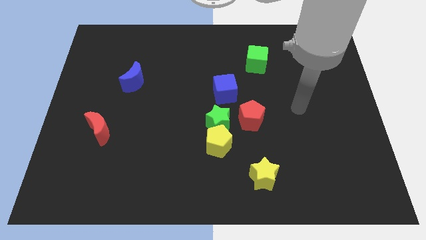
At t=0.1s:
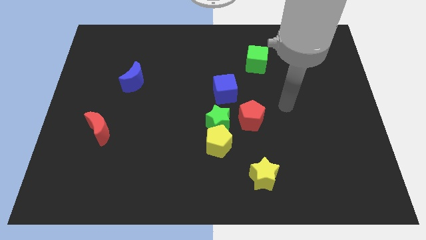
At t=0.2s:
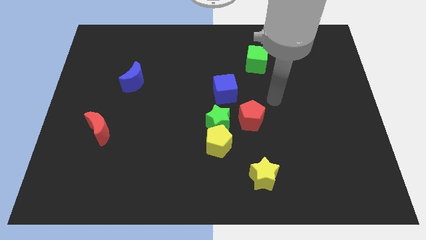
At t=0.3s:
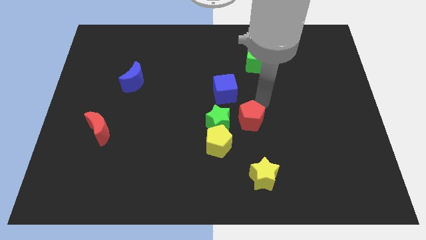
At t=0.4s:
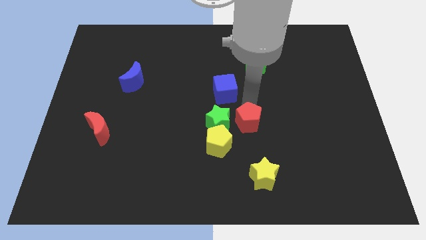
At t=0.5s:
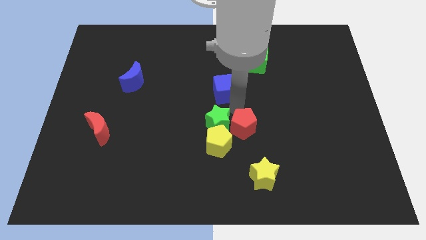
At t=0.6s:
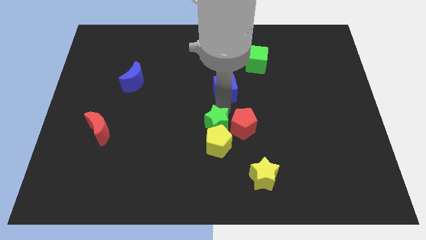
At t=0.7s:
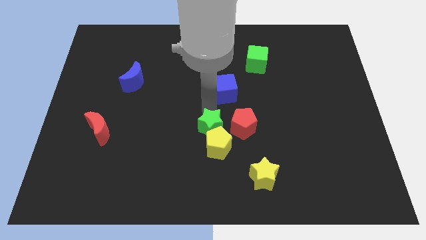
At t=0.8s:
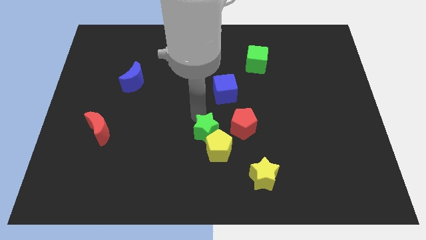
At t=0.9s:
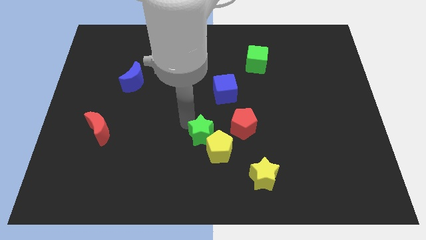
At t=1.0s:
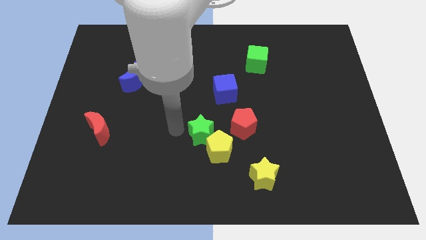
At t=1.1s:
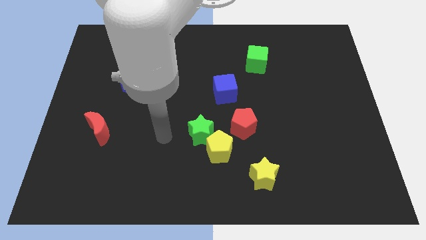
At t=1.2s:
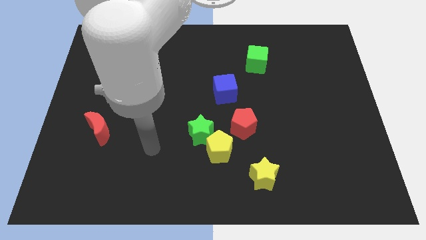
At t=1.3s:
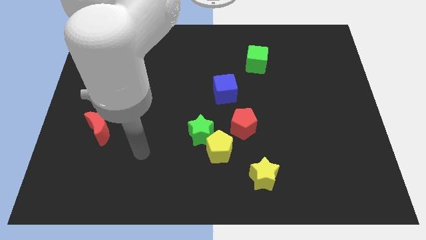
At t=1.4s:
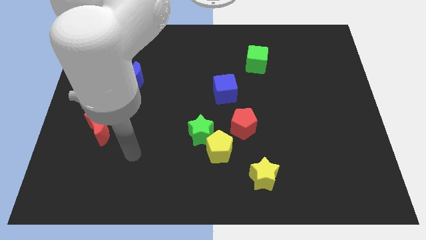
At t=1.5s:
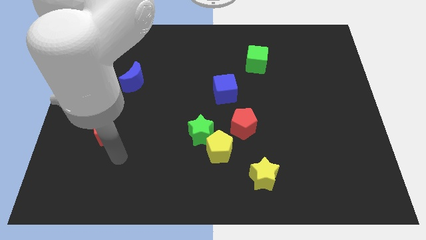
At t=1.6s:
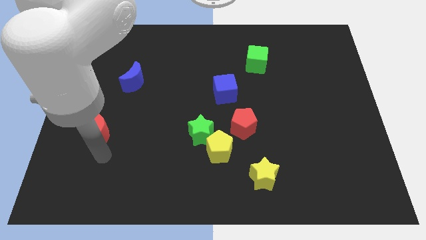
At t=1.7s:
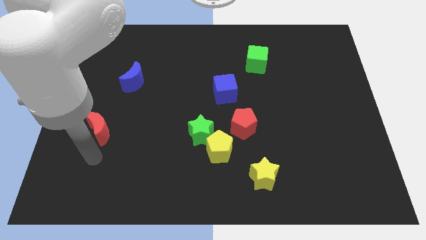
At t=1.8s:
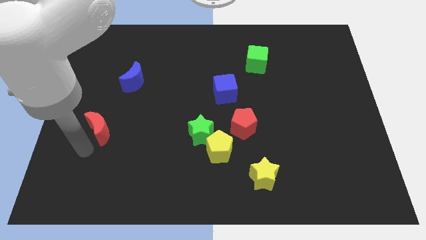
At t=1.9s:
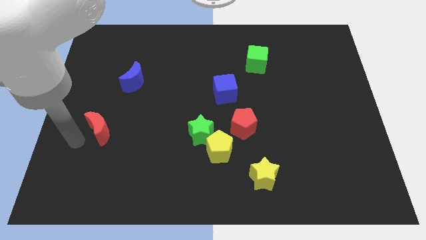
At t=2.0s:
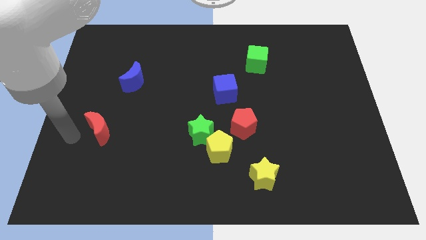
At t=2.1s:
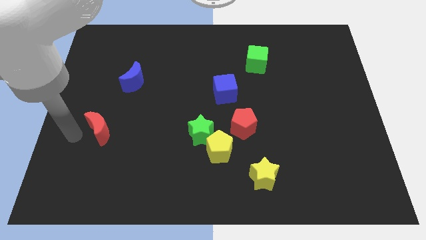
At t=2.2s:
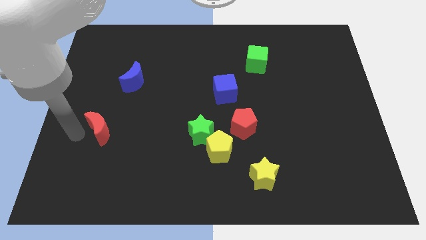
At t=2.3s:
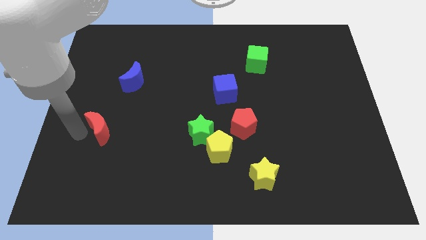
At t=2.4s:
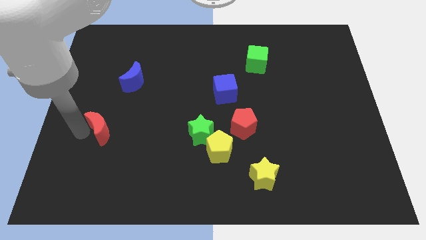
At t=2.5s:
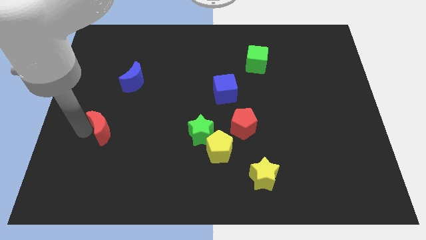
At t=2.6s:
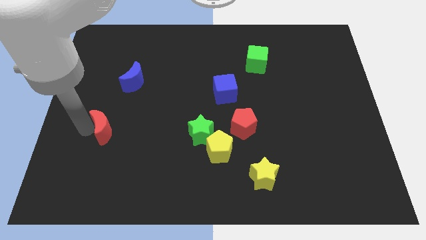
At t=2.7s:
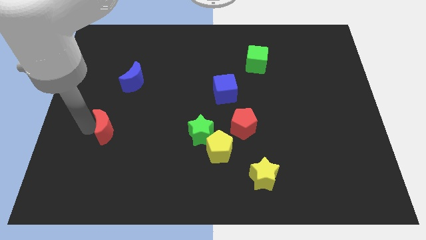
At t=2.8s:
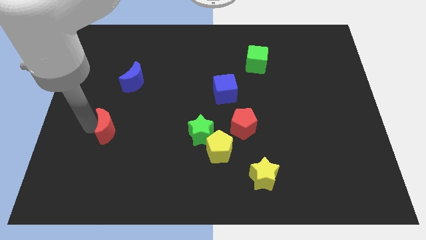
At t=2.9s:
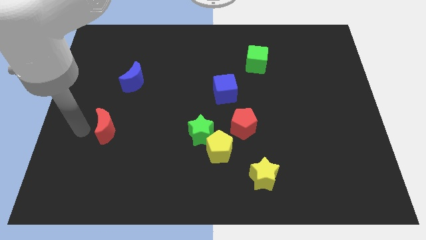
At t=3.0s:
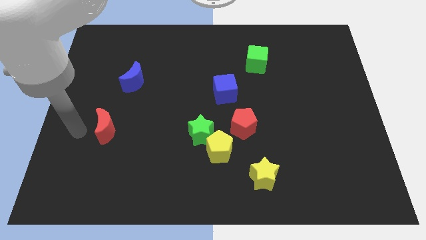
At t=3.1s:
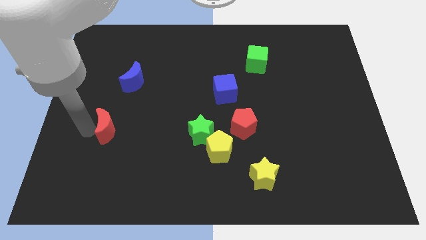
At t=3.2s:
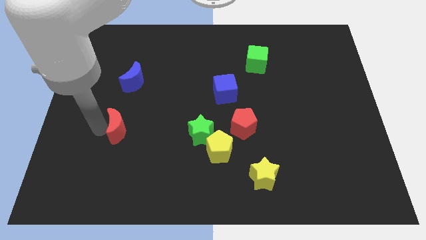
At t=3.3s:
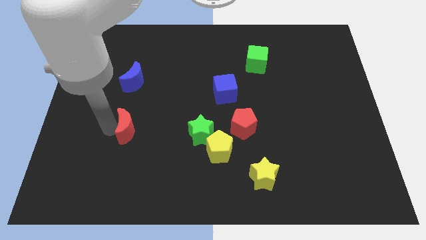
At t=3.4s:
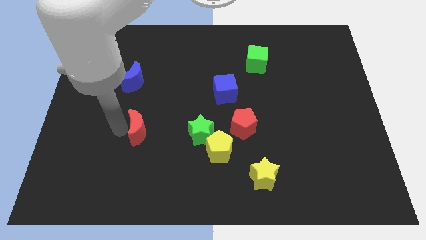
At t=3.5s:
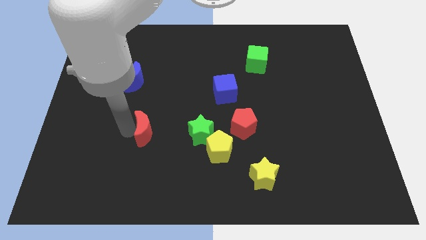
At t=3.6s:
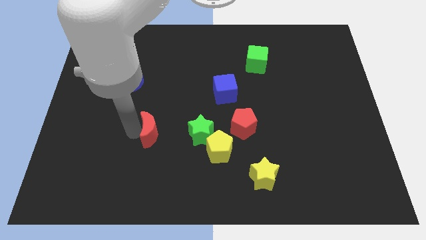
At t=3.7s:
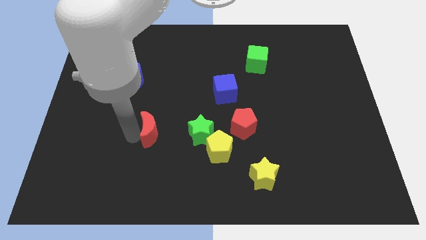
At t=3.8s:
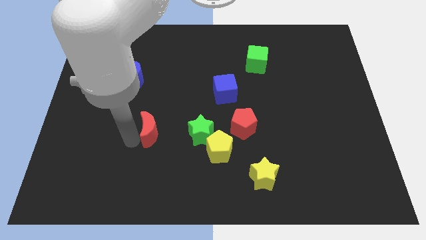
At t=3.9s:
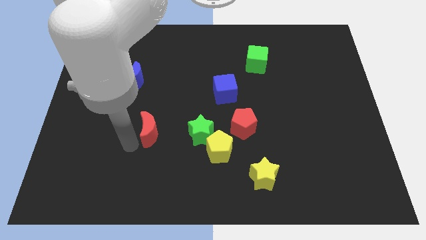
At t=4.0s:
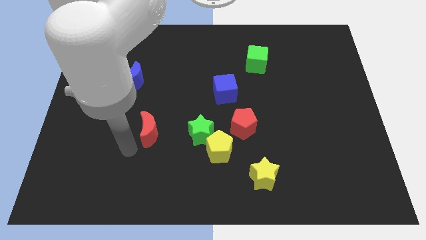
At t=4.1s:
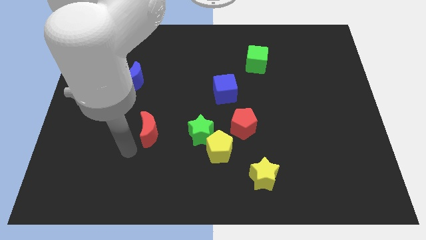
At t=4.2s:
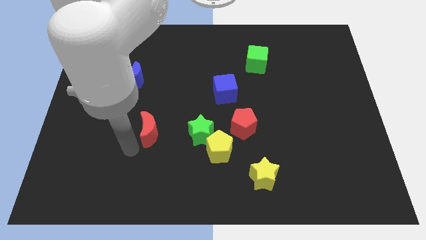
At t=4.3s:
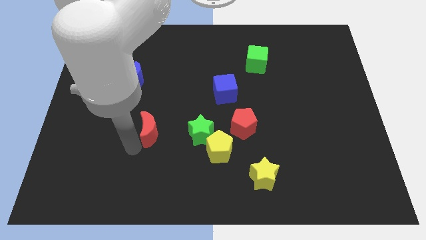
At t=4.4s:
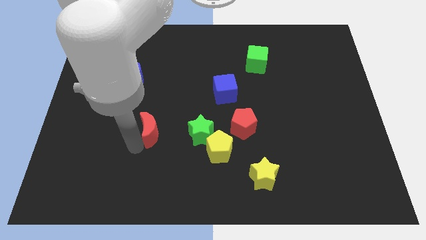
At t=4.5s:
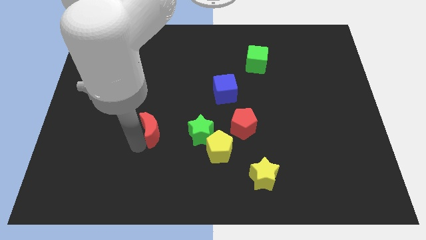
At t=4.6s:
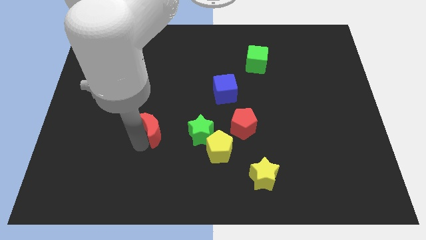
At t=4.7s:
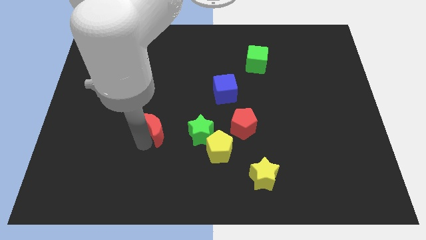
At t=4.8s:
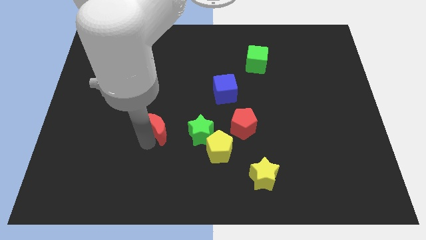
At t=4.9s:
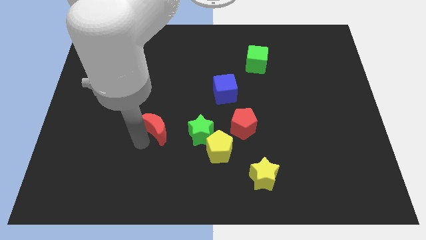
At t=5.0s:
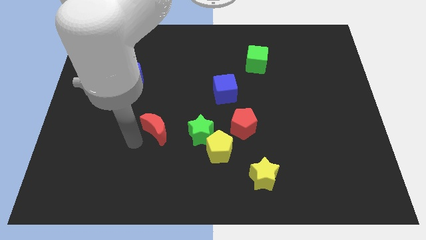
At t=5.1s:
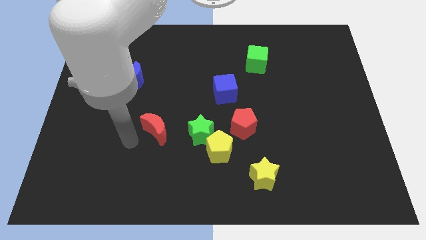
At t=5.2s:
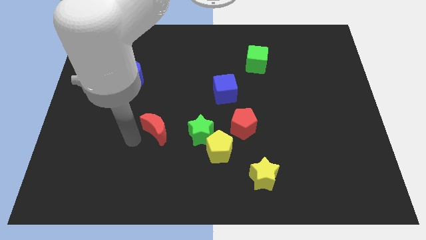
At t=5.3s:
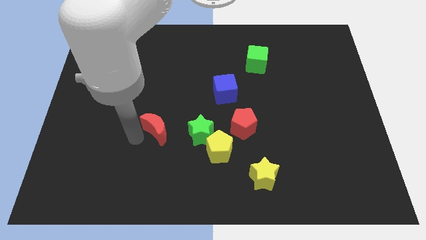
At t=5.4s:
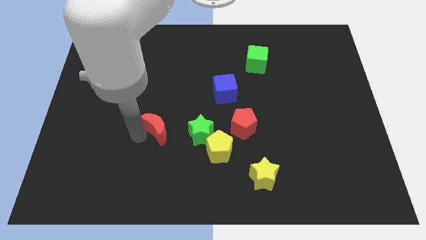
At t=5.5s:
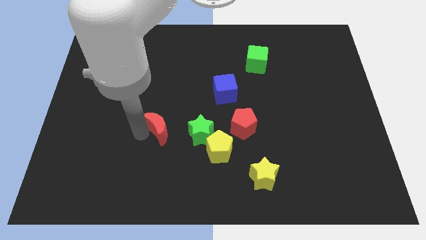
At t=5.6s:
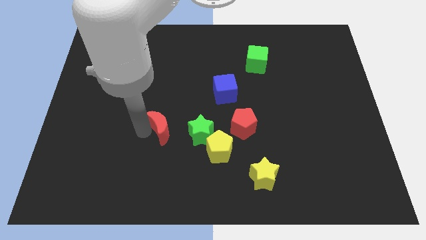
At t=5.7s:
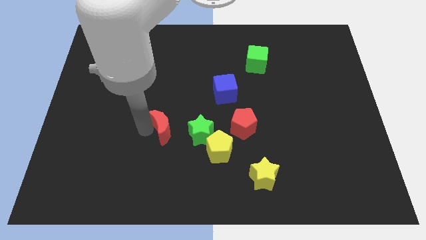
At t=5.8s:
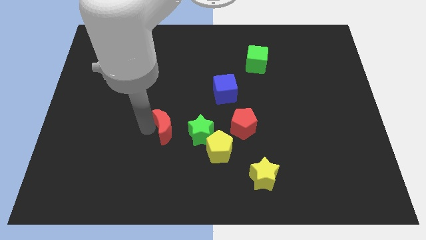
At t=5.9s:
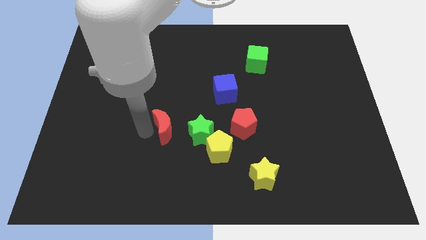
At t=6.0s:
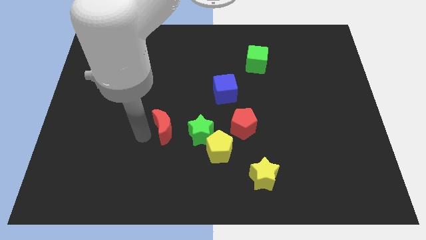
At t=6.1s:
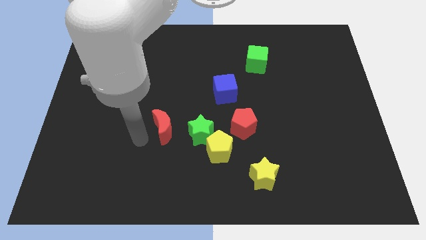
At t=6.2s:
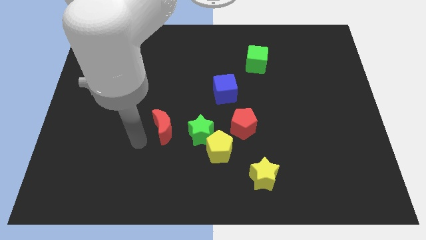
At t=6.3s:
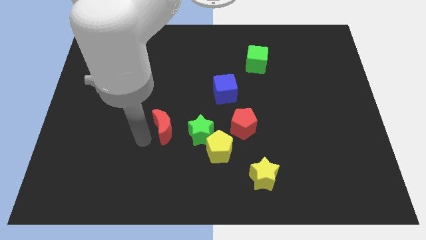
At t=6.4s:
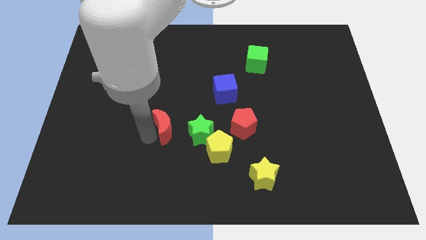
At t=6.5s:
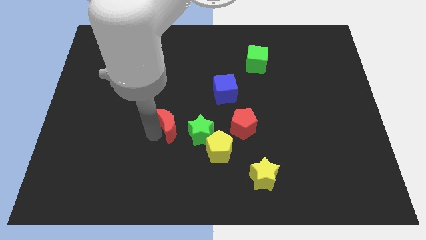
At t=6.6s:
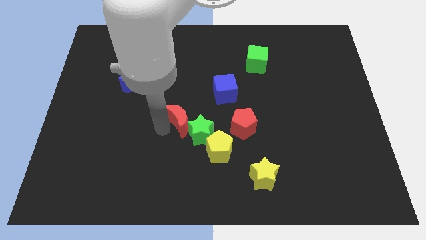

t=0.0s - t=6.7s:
move the red moon next to the green star

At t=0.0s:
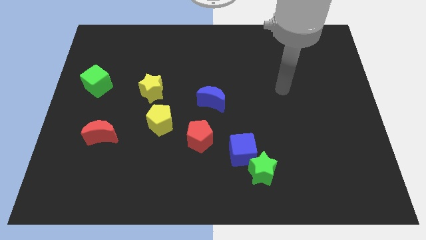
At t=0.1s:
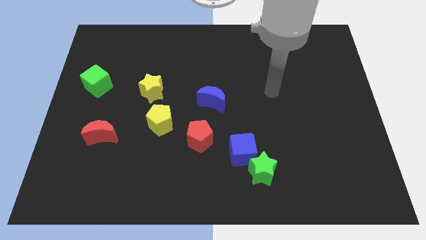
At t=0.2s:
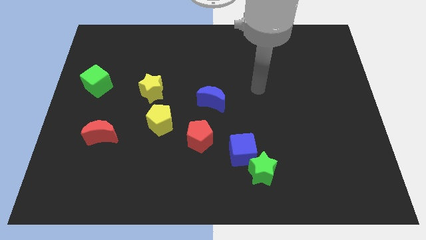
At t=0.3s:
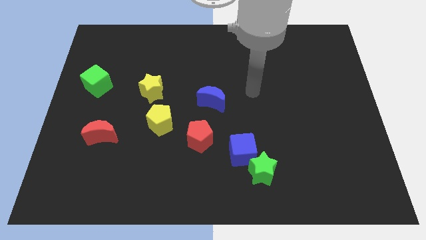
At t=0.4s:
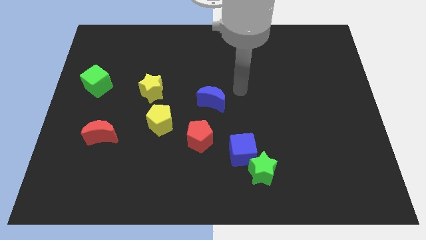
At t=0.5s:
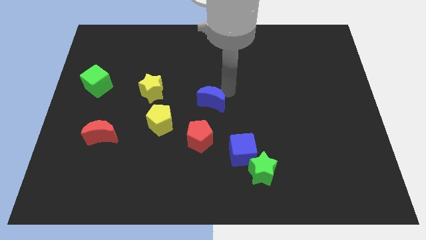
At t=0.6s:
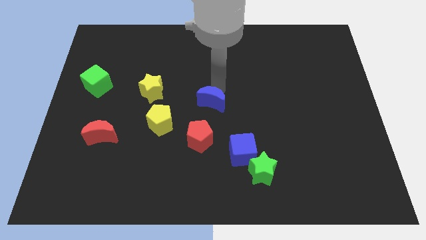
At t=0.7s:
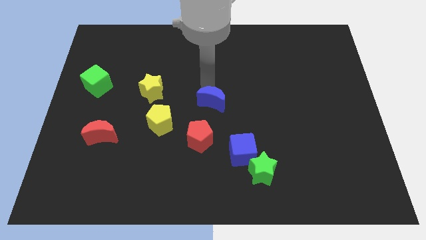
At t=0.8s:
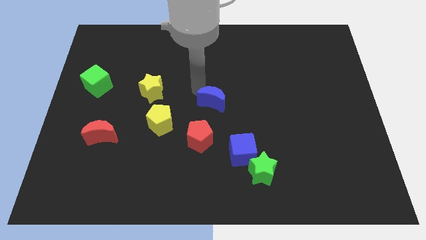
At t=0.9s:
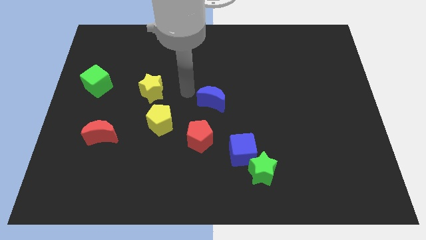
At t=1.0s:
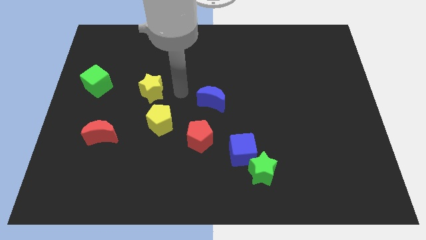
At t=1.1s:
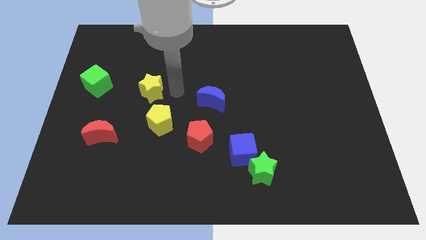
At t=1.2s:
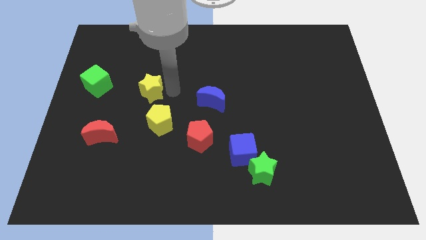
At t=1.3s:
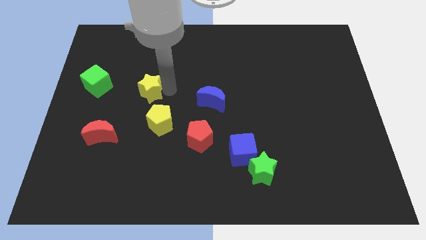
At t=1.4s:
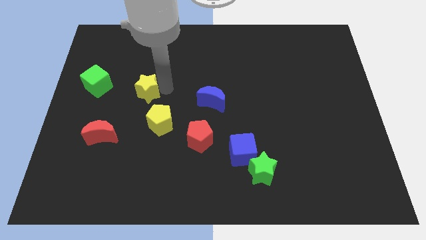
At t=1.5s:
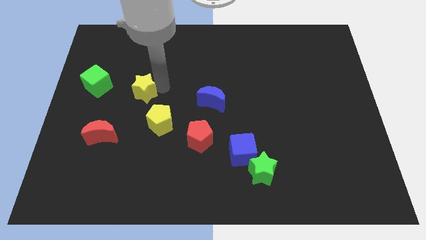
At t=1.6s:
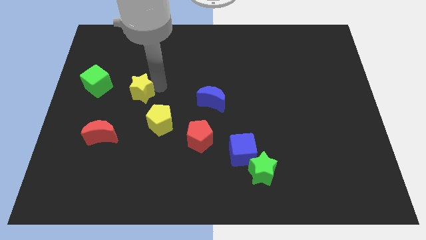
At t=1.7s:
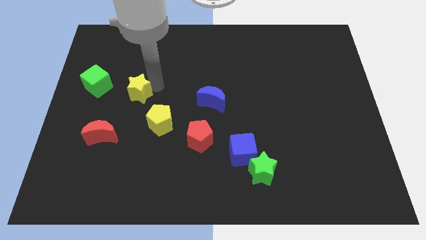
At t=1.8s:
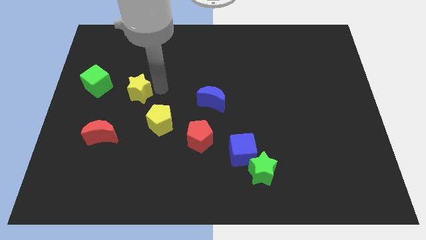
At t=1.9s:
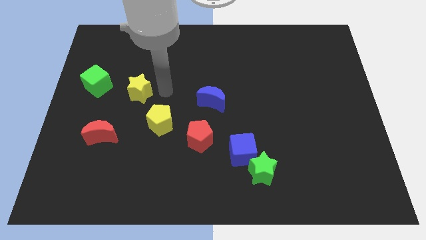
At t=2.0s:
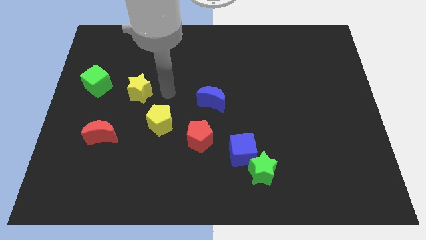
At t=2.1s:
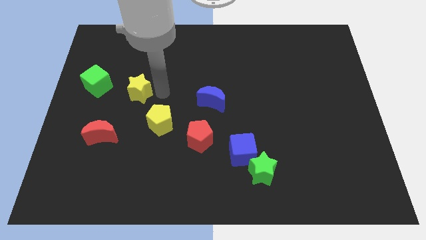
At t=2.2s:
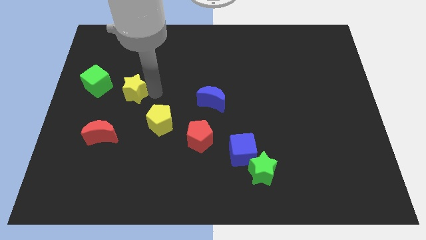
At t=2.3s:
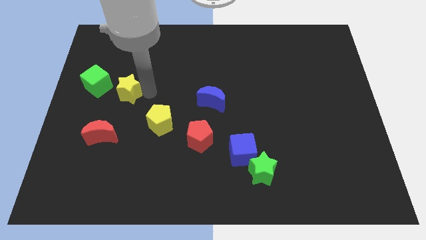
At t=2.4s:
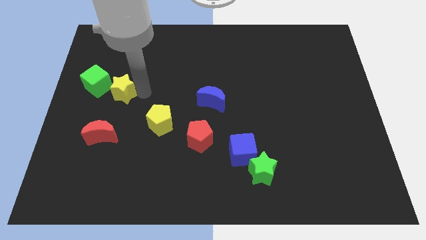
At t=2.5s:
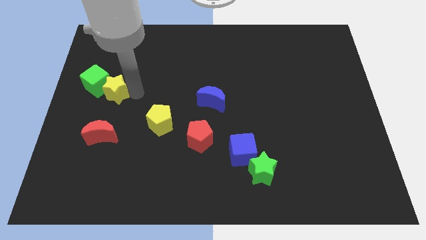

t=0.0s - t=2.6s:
slide the yellow star towards the green cube
